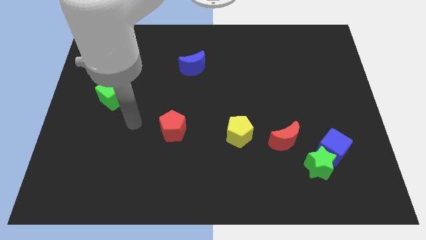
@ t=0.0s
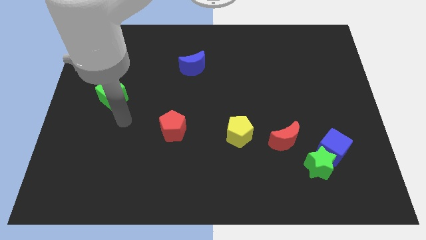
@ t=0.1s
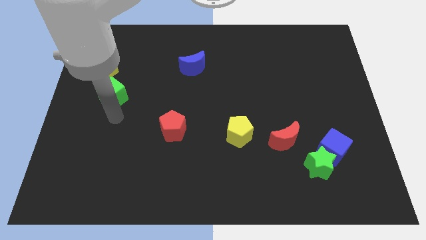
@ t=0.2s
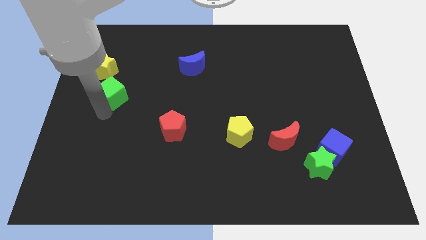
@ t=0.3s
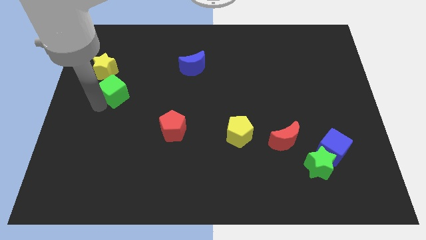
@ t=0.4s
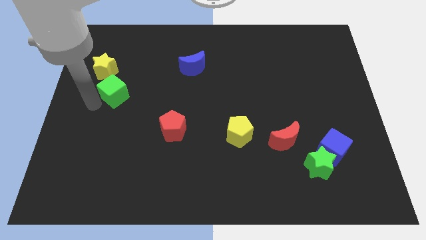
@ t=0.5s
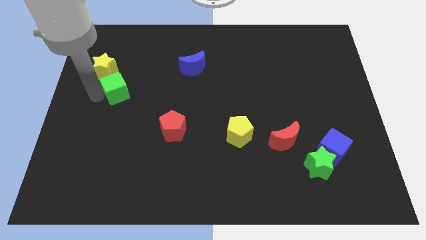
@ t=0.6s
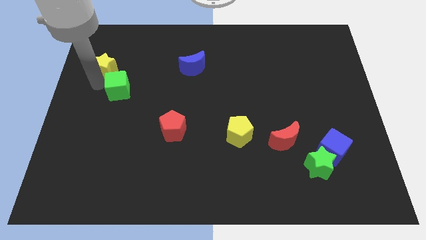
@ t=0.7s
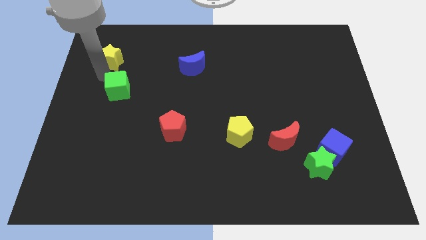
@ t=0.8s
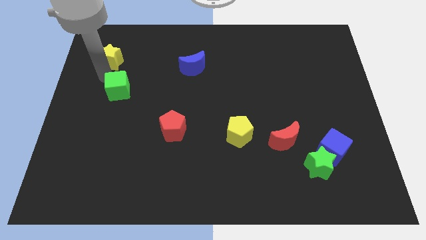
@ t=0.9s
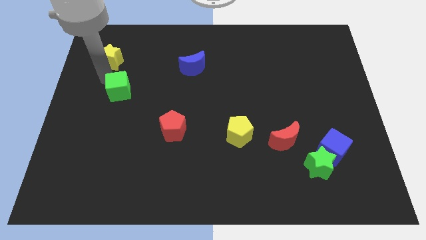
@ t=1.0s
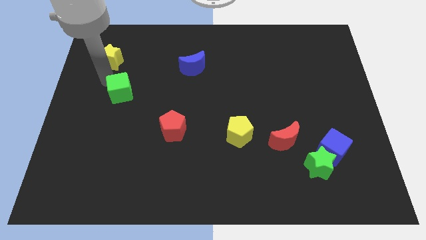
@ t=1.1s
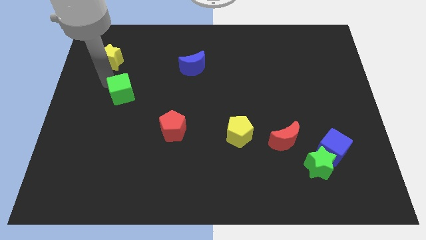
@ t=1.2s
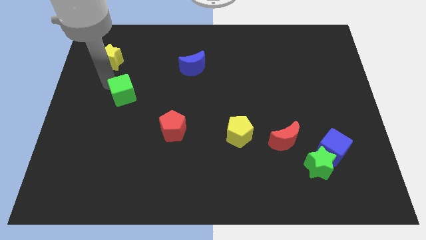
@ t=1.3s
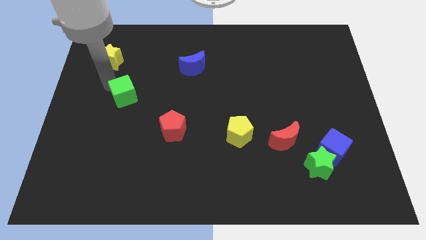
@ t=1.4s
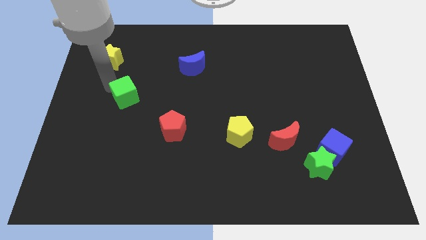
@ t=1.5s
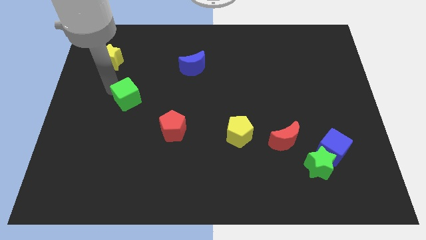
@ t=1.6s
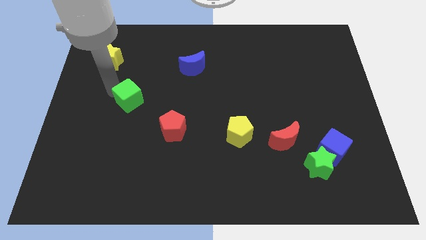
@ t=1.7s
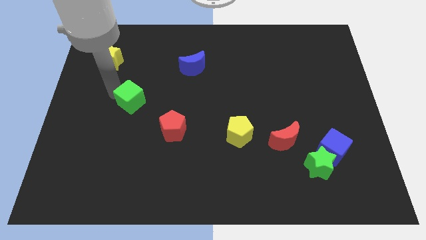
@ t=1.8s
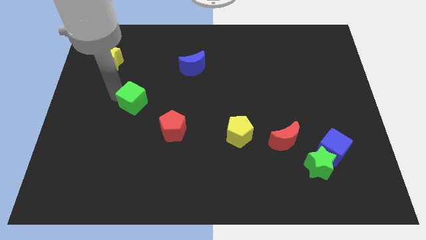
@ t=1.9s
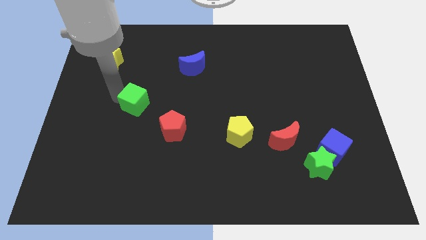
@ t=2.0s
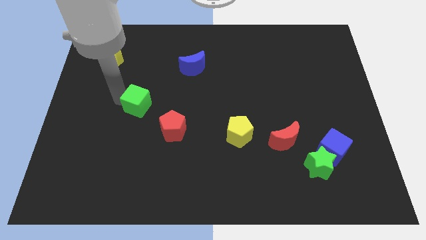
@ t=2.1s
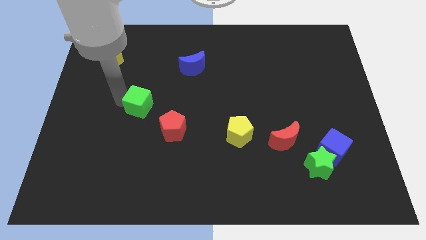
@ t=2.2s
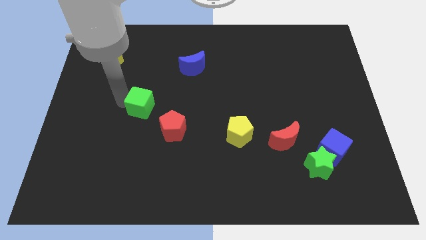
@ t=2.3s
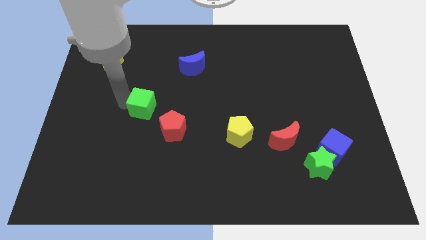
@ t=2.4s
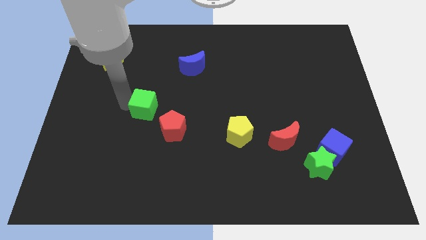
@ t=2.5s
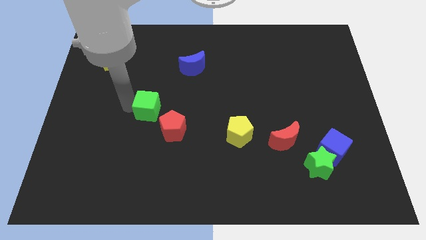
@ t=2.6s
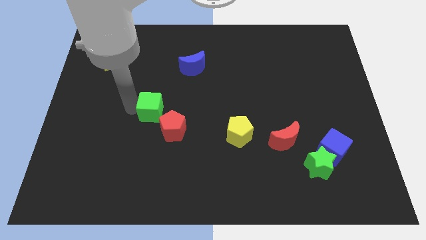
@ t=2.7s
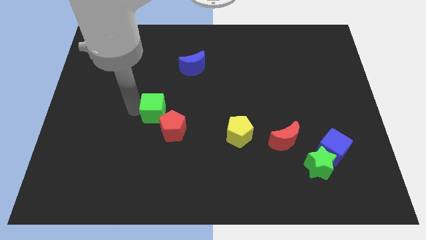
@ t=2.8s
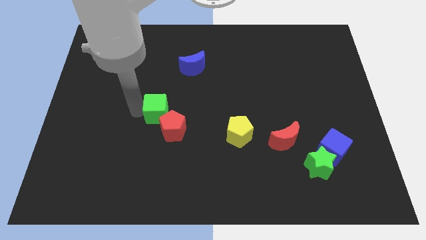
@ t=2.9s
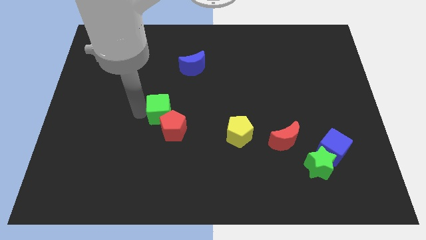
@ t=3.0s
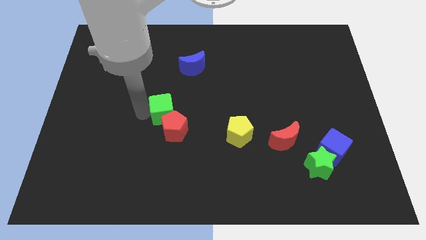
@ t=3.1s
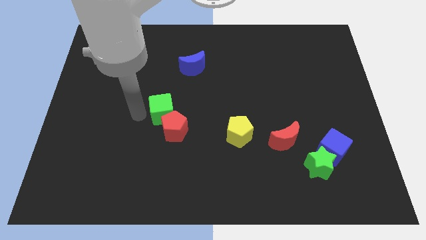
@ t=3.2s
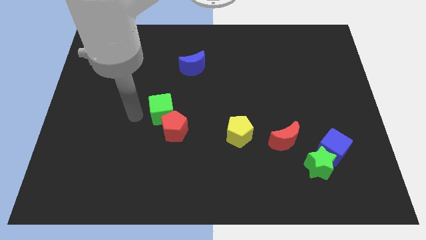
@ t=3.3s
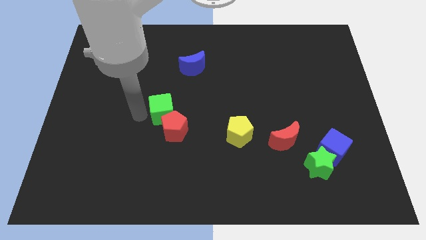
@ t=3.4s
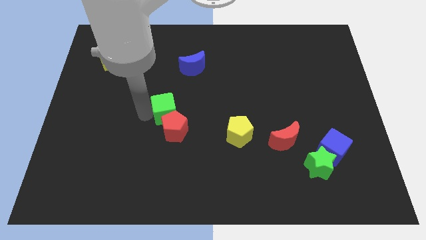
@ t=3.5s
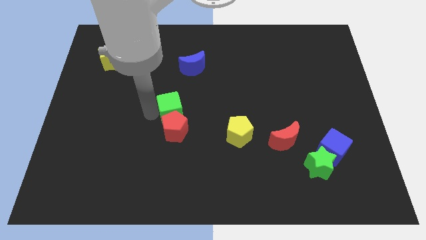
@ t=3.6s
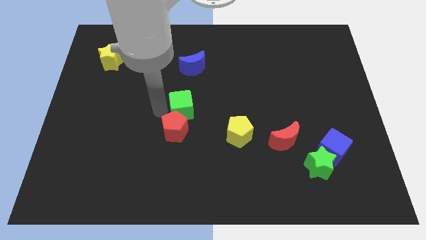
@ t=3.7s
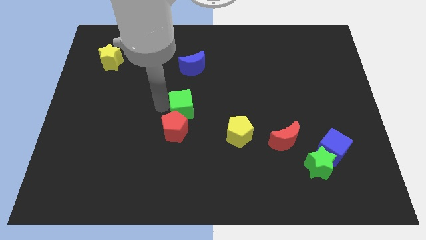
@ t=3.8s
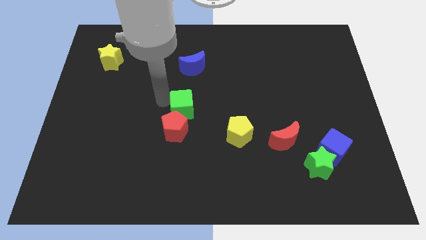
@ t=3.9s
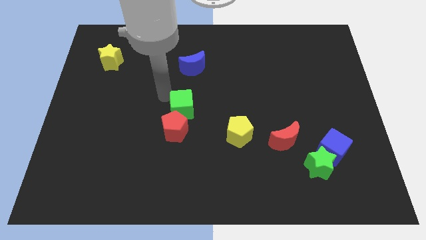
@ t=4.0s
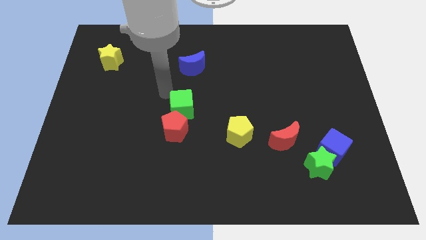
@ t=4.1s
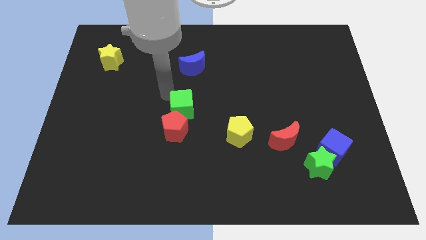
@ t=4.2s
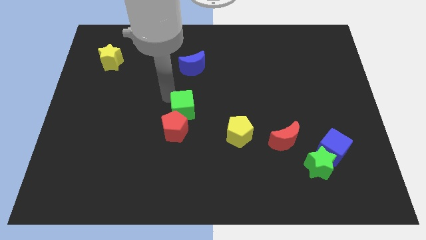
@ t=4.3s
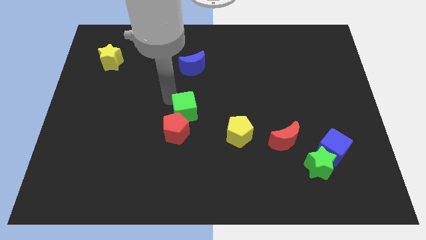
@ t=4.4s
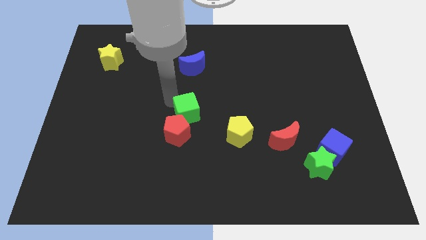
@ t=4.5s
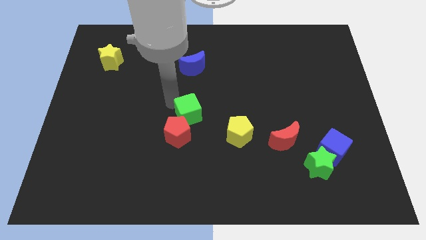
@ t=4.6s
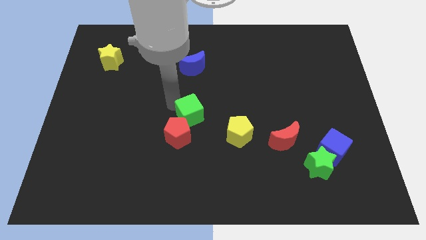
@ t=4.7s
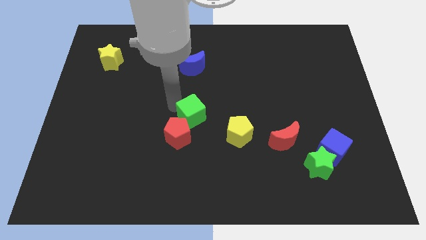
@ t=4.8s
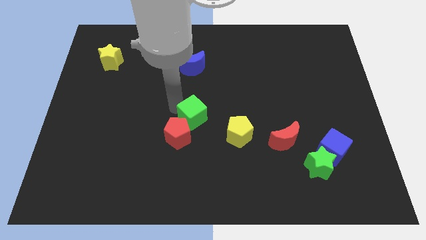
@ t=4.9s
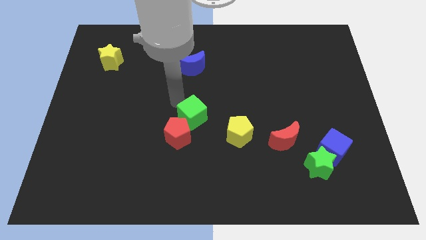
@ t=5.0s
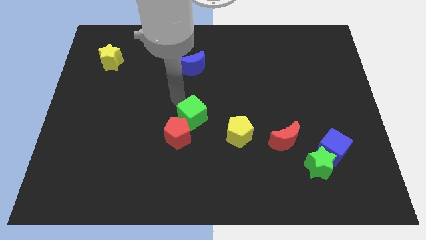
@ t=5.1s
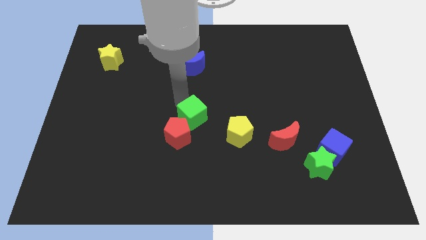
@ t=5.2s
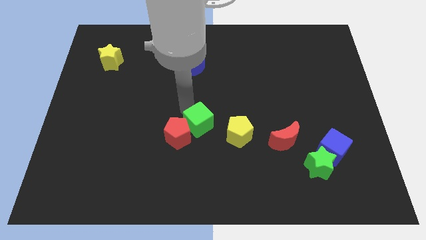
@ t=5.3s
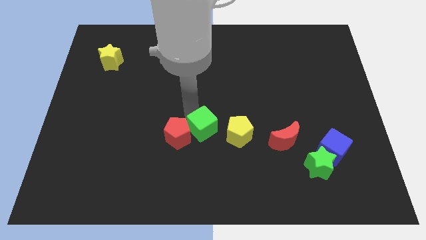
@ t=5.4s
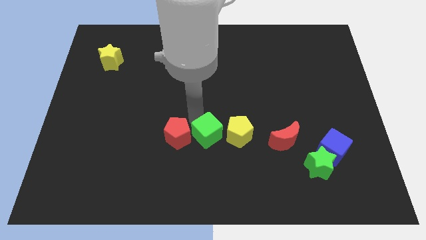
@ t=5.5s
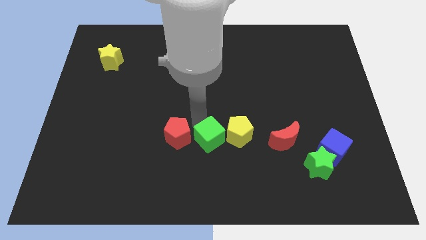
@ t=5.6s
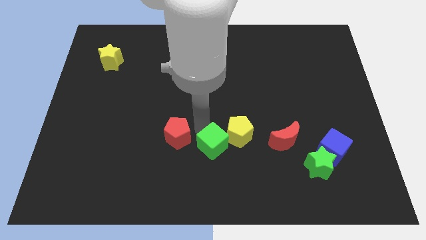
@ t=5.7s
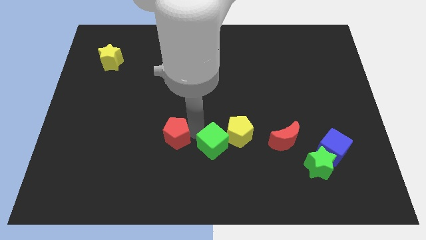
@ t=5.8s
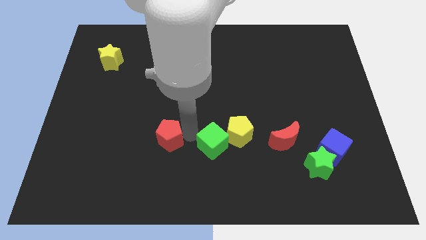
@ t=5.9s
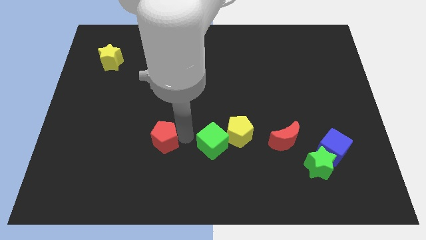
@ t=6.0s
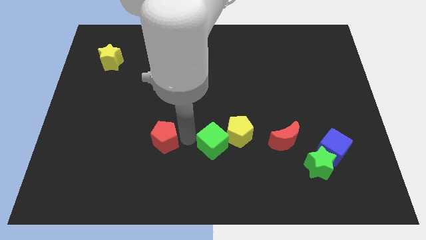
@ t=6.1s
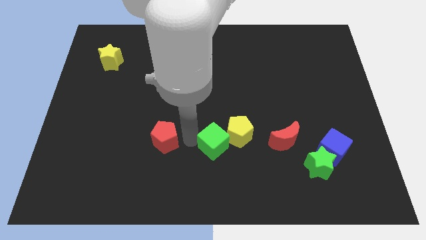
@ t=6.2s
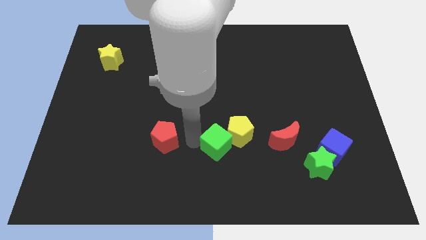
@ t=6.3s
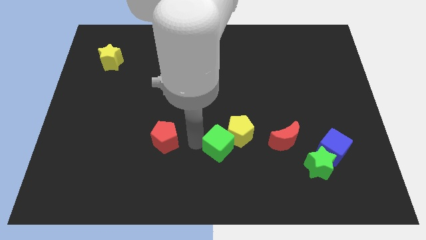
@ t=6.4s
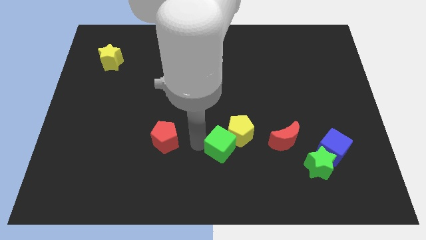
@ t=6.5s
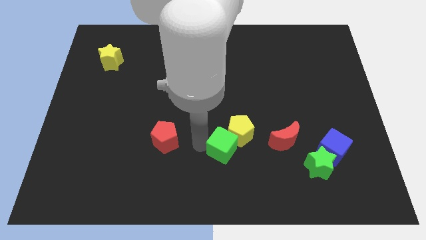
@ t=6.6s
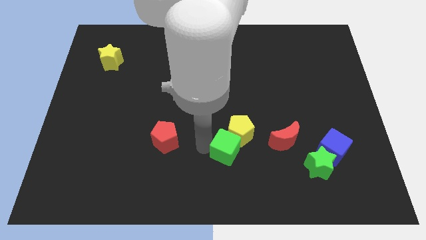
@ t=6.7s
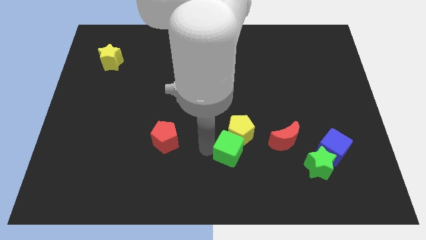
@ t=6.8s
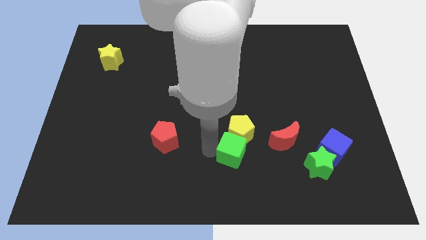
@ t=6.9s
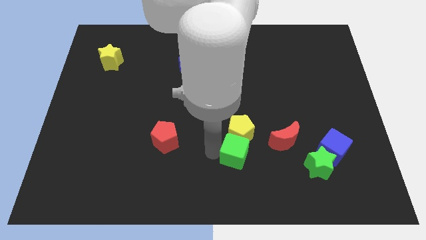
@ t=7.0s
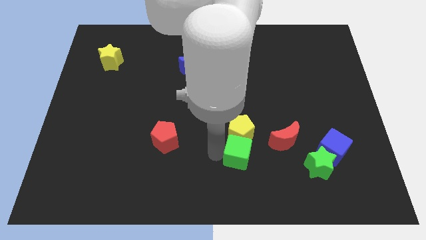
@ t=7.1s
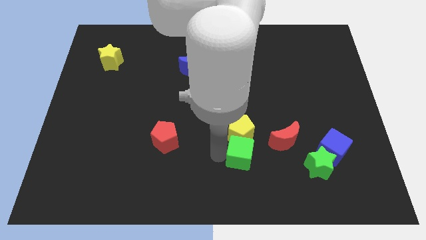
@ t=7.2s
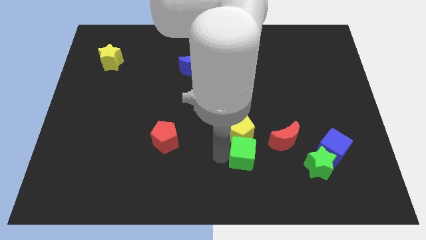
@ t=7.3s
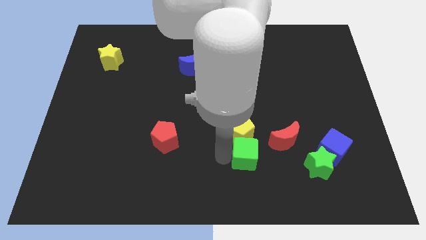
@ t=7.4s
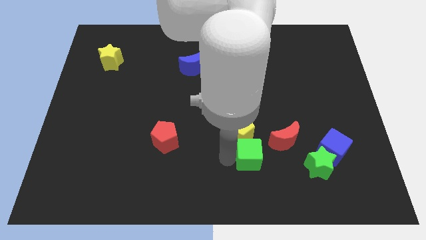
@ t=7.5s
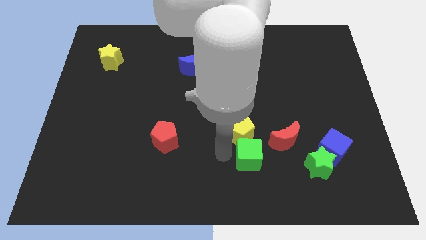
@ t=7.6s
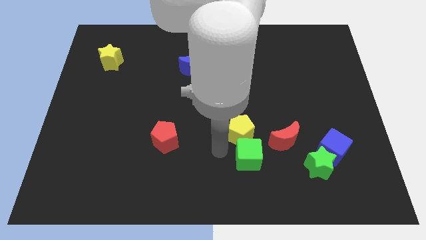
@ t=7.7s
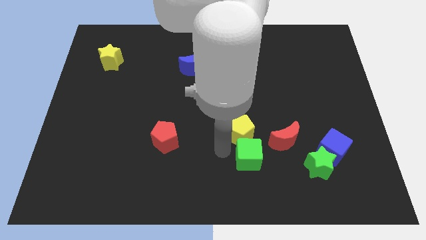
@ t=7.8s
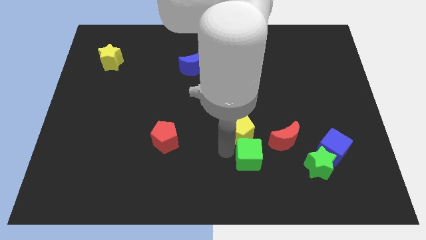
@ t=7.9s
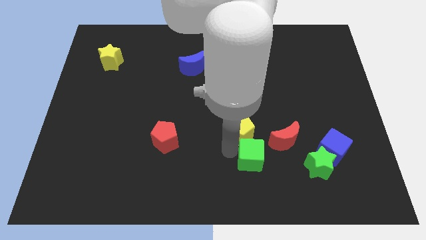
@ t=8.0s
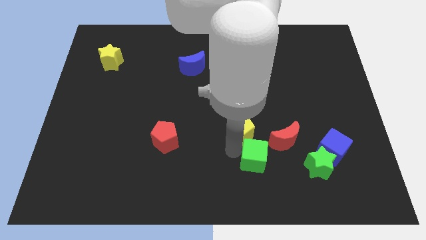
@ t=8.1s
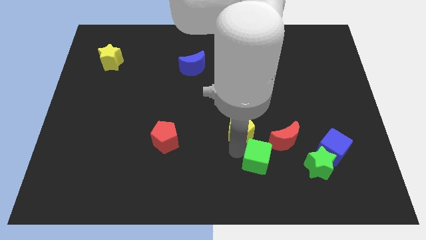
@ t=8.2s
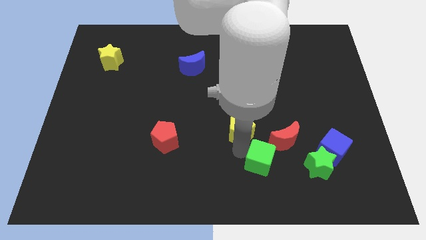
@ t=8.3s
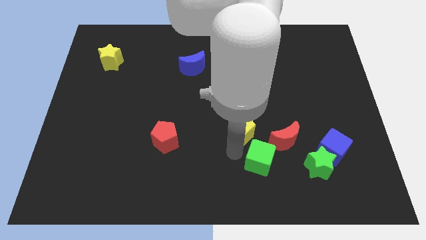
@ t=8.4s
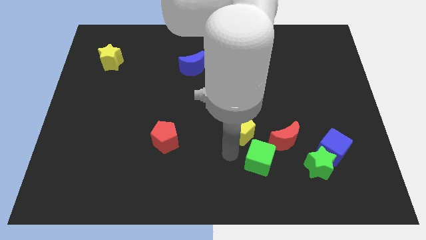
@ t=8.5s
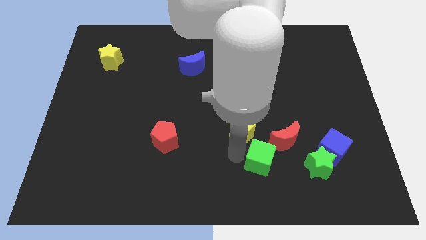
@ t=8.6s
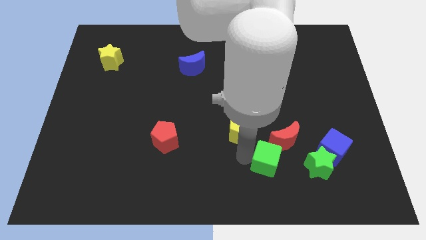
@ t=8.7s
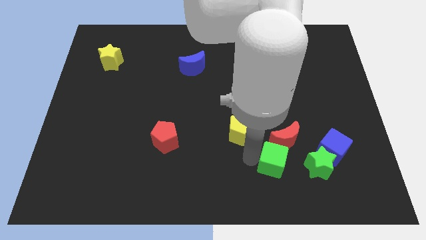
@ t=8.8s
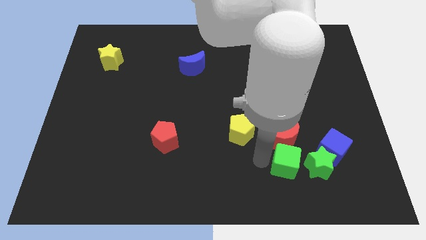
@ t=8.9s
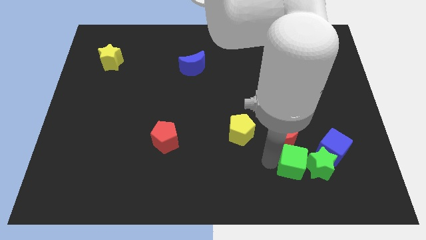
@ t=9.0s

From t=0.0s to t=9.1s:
slide the green cube to the bottom left side of the blue cube
